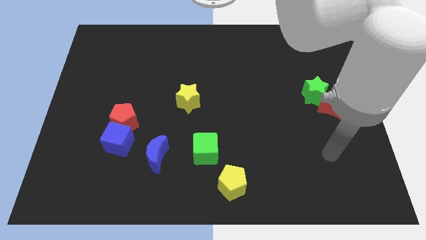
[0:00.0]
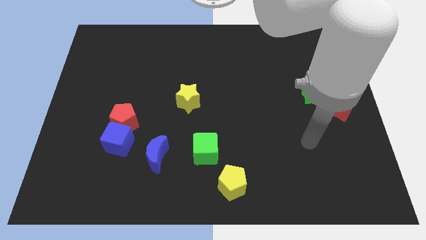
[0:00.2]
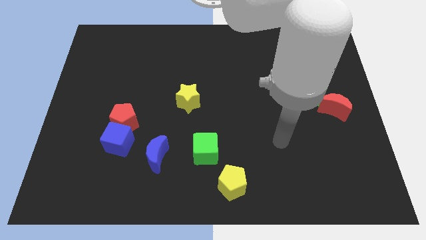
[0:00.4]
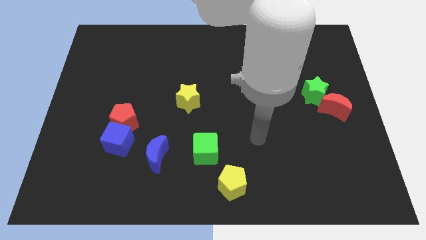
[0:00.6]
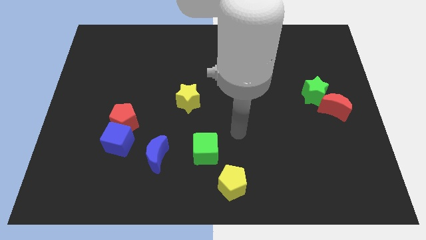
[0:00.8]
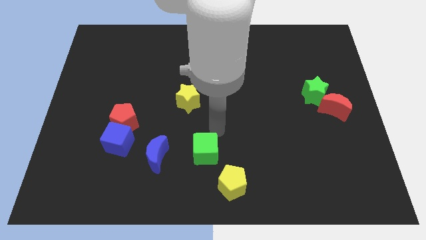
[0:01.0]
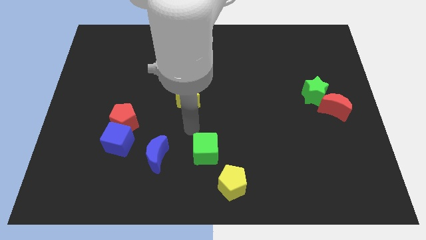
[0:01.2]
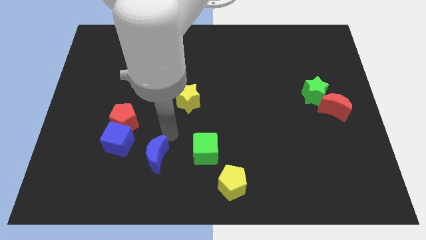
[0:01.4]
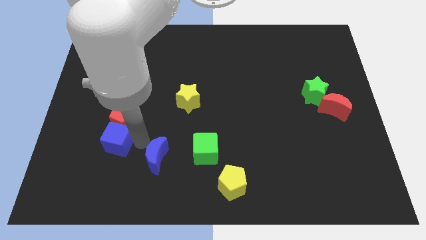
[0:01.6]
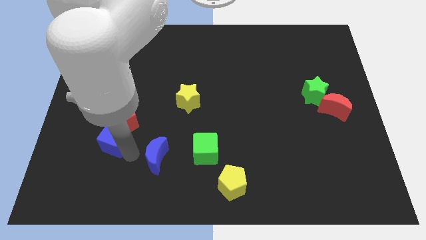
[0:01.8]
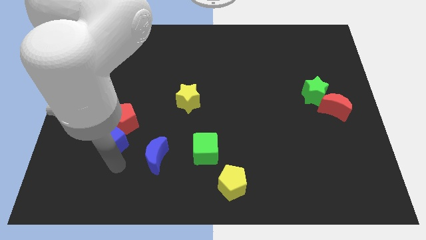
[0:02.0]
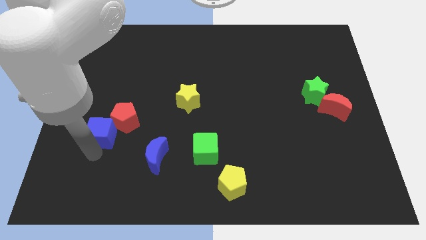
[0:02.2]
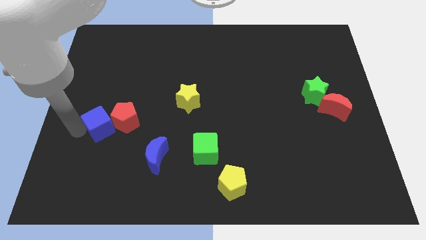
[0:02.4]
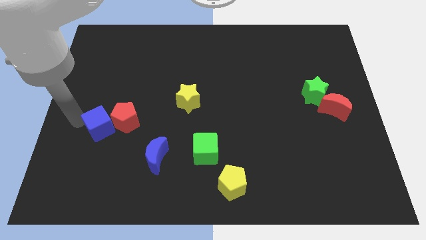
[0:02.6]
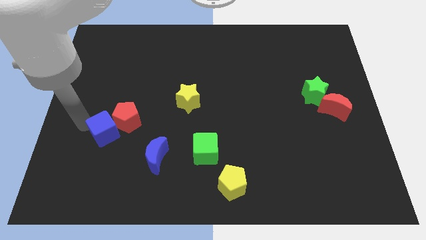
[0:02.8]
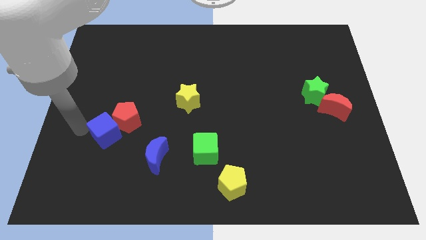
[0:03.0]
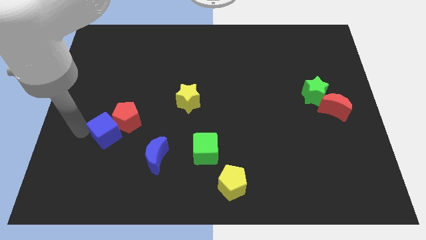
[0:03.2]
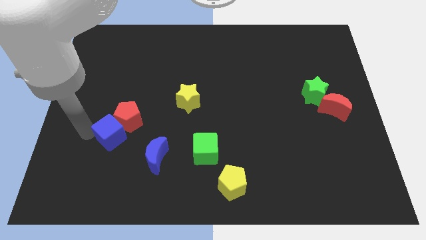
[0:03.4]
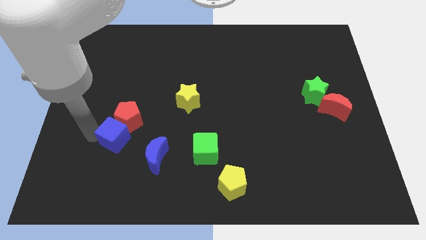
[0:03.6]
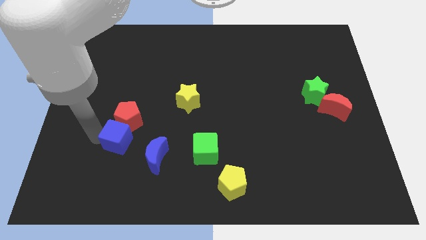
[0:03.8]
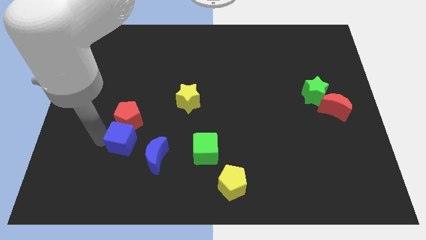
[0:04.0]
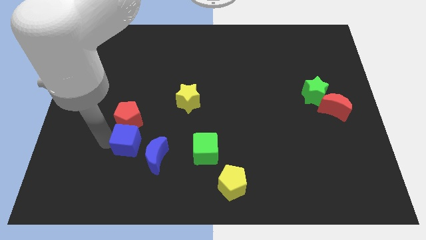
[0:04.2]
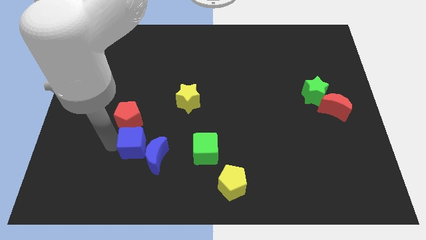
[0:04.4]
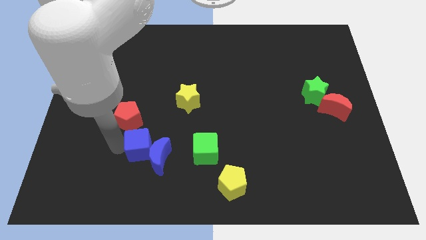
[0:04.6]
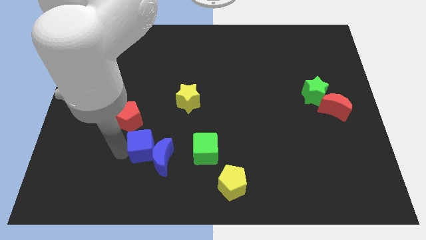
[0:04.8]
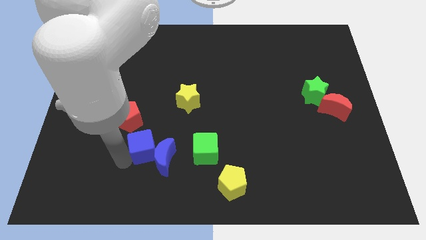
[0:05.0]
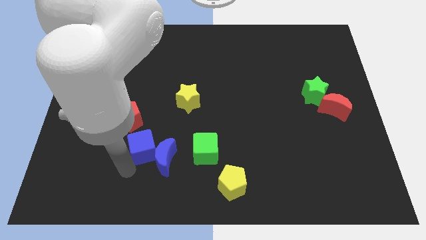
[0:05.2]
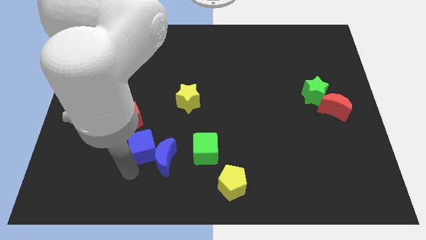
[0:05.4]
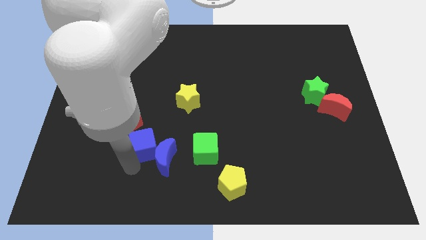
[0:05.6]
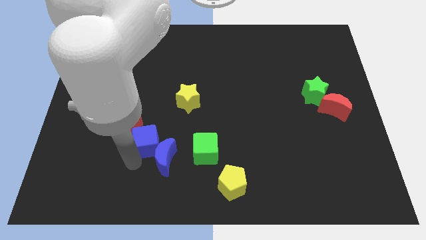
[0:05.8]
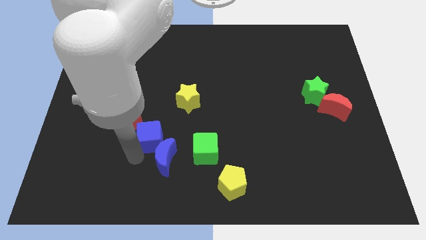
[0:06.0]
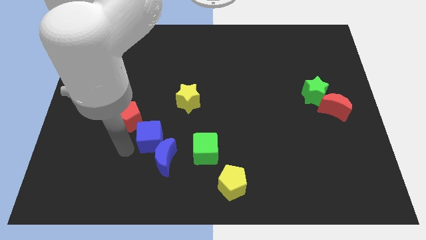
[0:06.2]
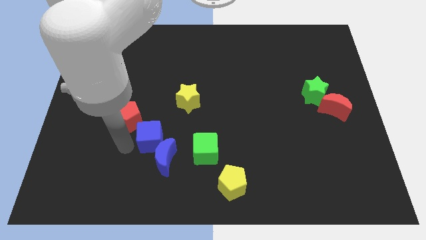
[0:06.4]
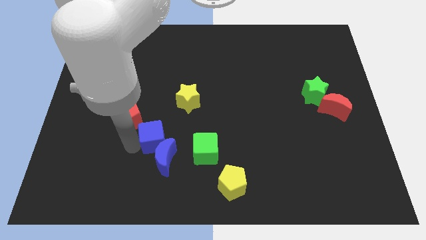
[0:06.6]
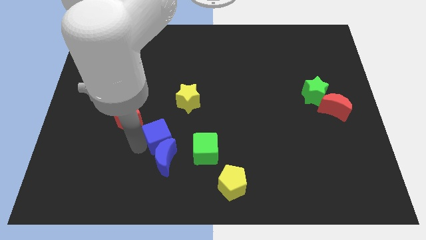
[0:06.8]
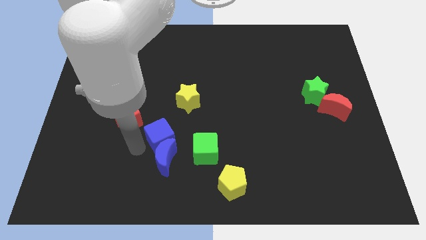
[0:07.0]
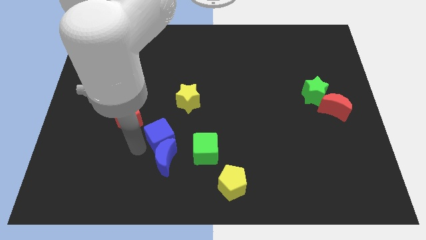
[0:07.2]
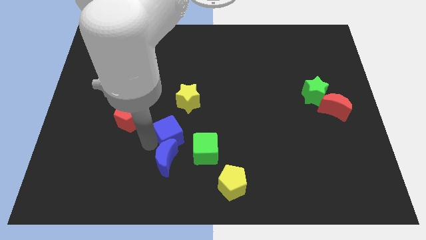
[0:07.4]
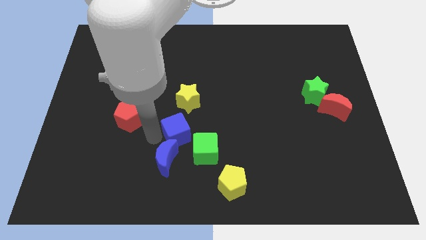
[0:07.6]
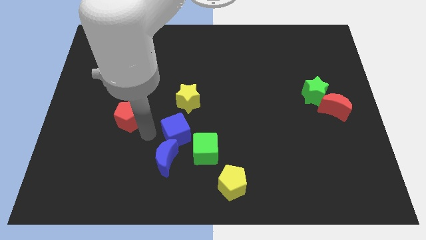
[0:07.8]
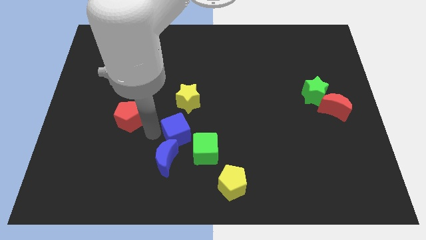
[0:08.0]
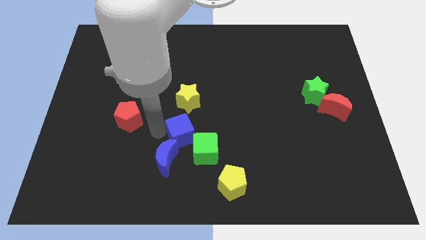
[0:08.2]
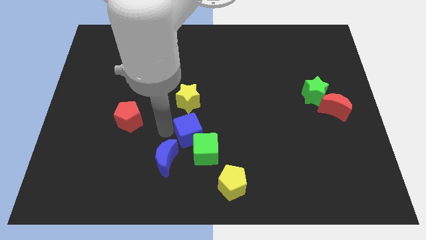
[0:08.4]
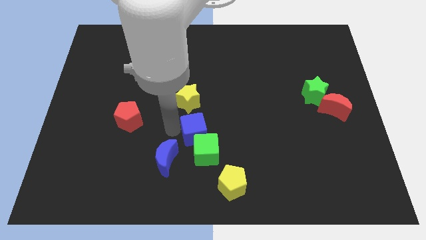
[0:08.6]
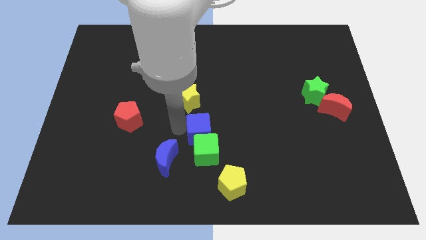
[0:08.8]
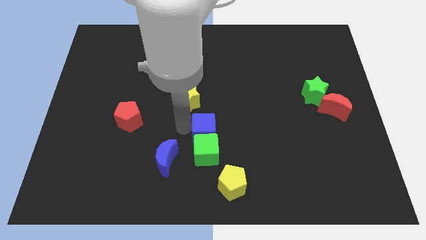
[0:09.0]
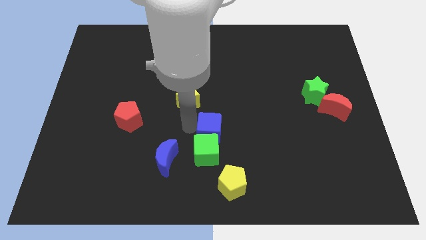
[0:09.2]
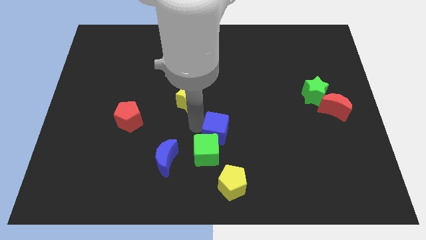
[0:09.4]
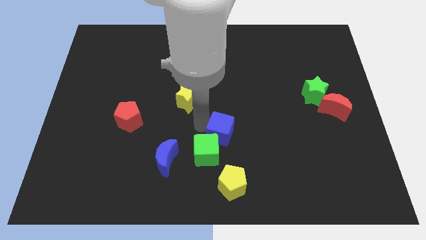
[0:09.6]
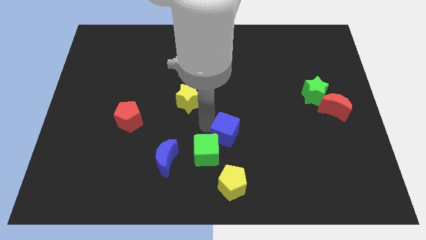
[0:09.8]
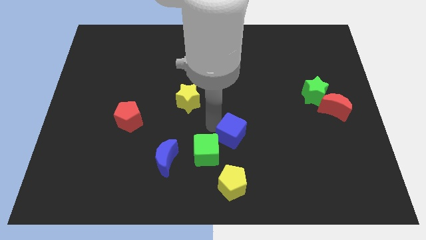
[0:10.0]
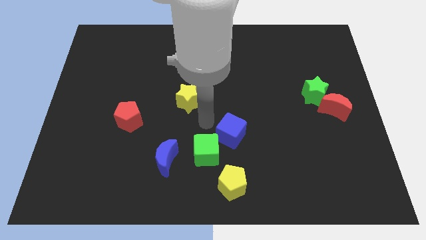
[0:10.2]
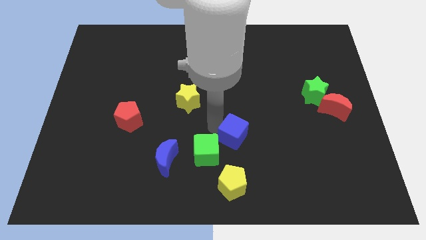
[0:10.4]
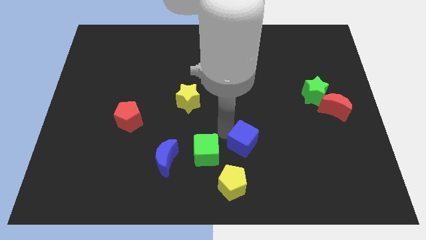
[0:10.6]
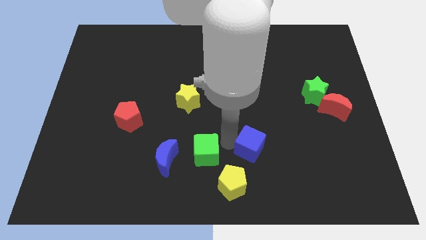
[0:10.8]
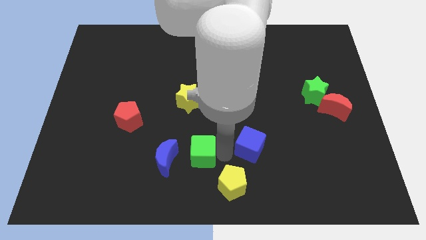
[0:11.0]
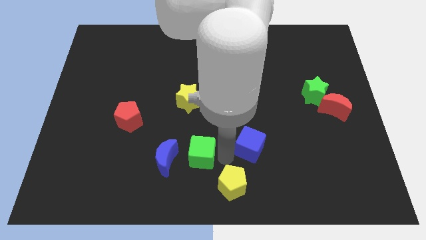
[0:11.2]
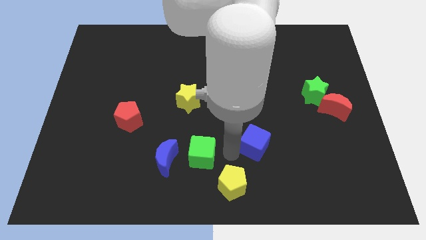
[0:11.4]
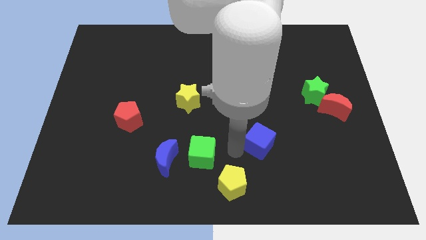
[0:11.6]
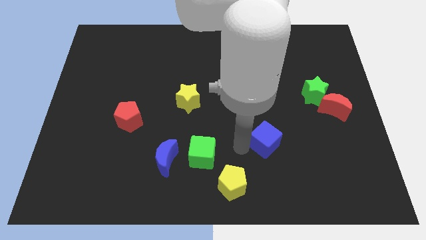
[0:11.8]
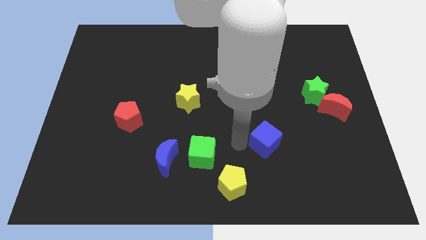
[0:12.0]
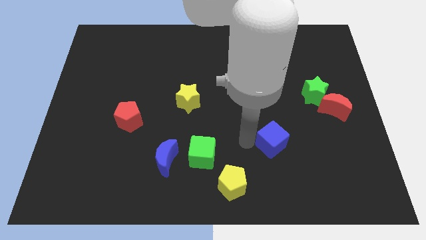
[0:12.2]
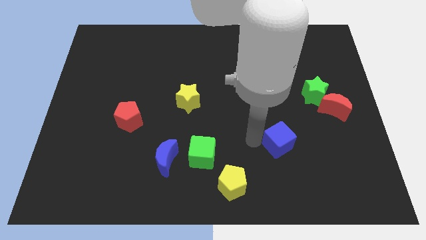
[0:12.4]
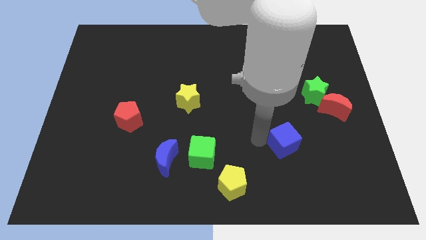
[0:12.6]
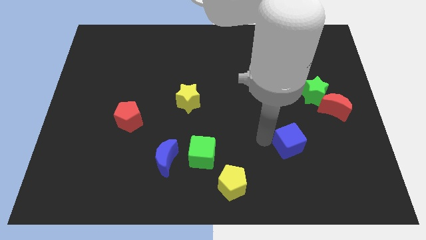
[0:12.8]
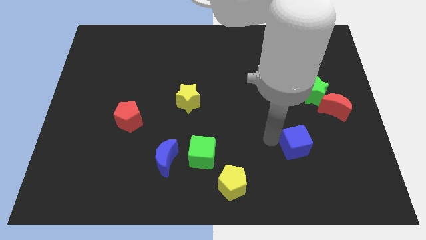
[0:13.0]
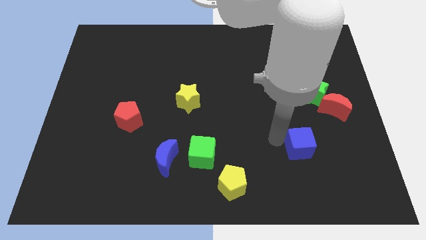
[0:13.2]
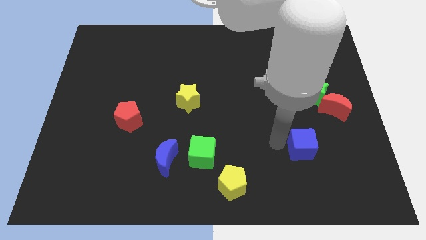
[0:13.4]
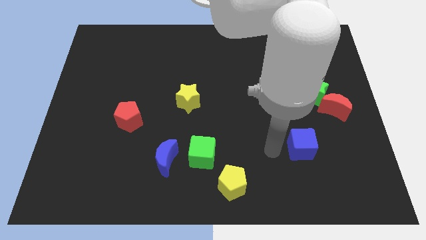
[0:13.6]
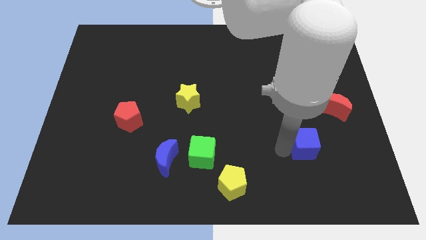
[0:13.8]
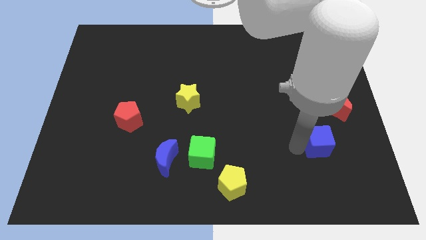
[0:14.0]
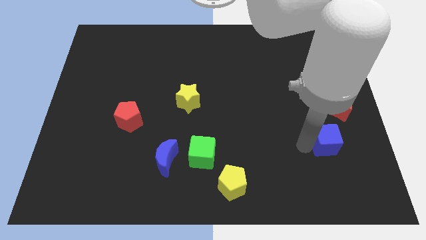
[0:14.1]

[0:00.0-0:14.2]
move the blue cube below the red moon

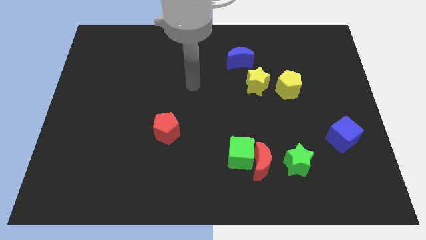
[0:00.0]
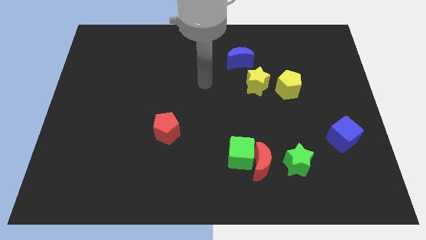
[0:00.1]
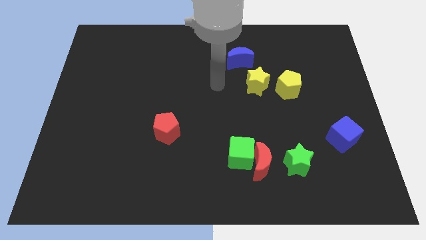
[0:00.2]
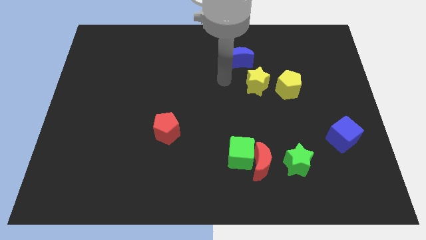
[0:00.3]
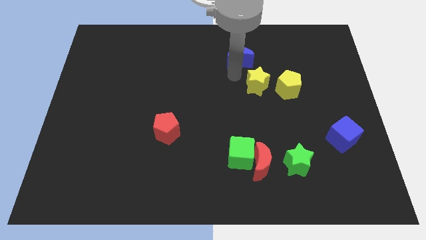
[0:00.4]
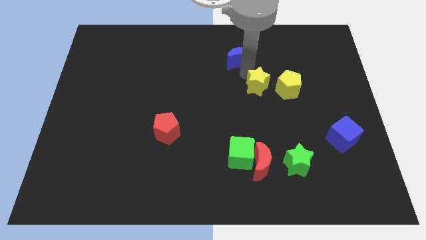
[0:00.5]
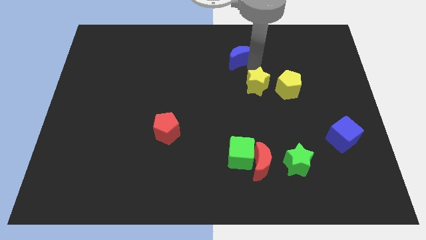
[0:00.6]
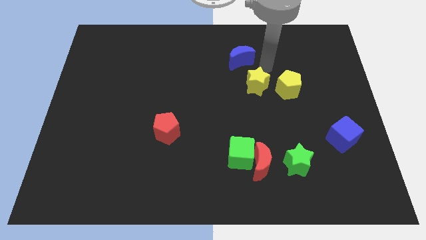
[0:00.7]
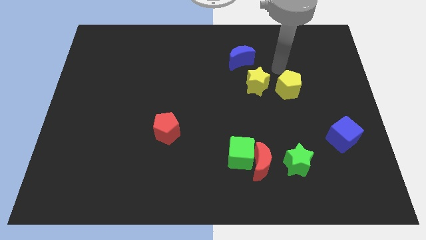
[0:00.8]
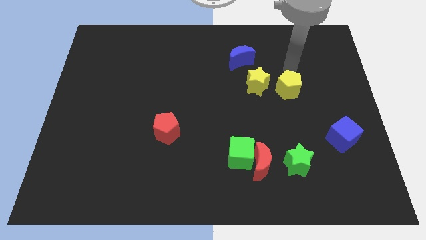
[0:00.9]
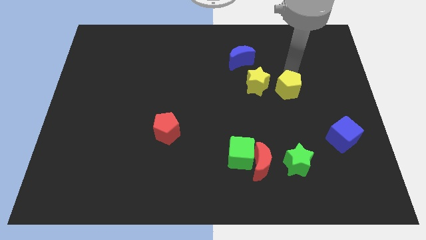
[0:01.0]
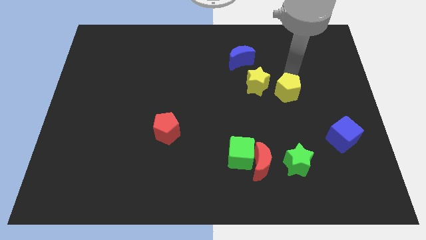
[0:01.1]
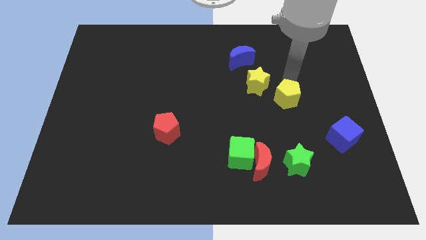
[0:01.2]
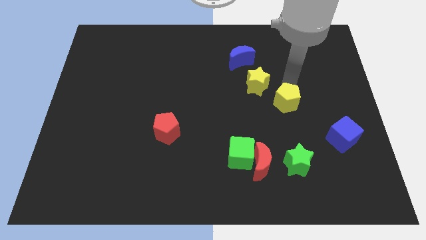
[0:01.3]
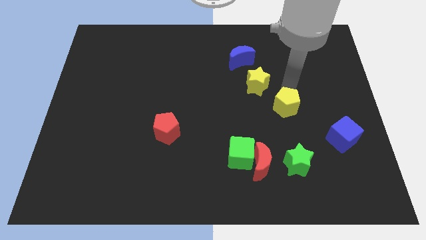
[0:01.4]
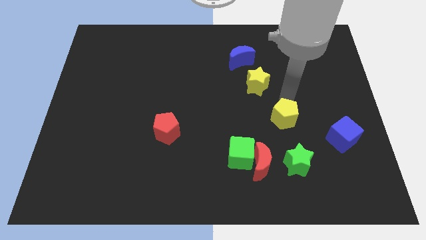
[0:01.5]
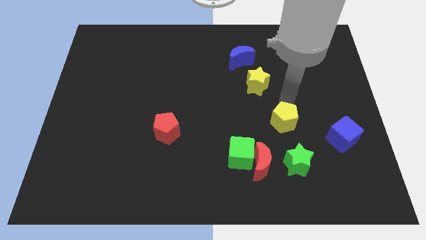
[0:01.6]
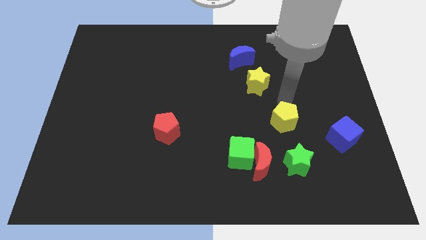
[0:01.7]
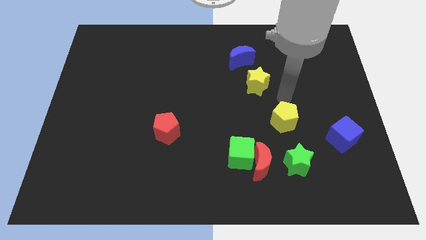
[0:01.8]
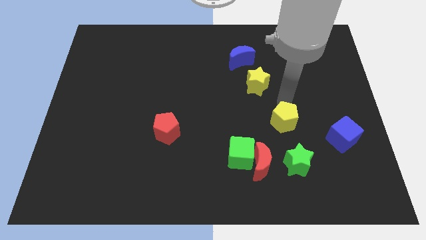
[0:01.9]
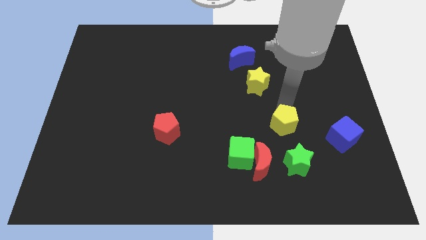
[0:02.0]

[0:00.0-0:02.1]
slide the yellow pentagon to the top right side of the red moon
